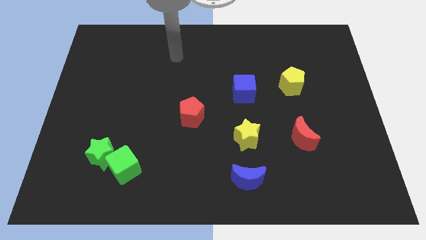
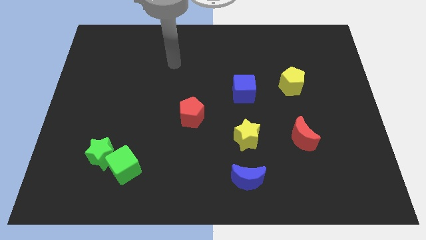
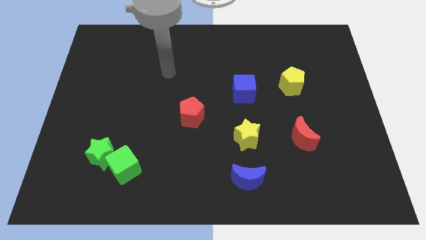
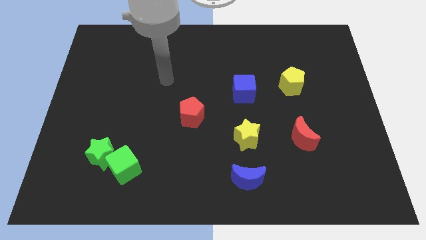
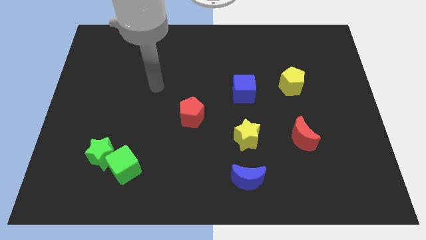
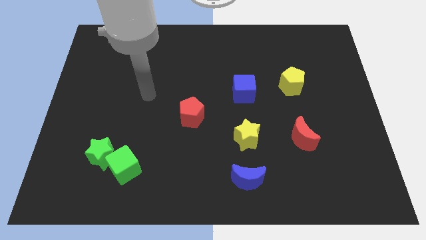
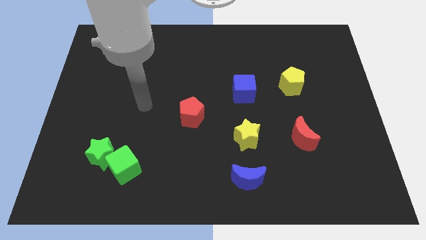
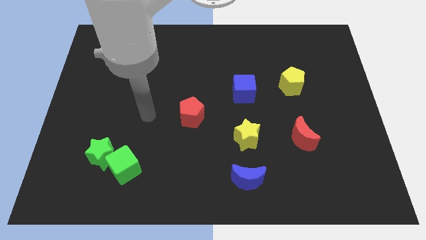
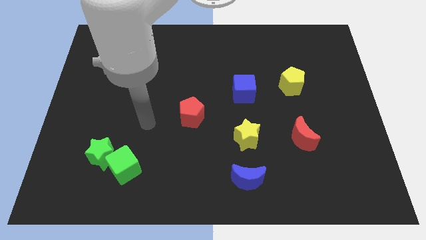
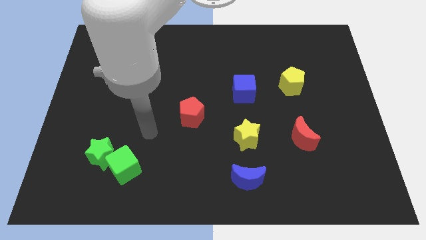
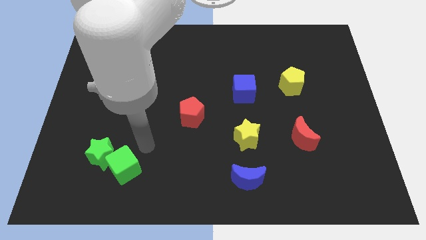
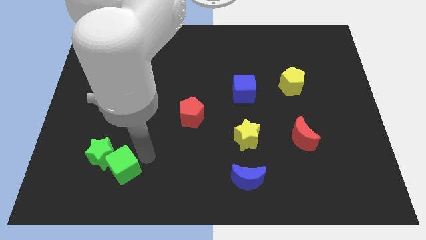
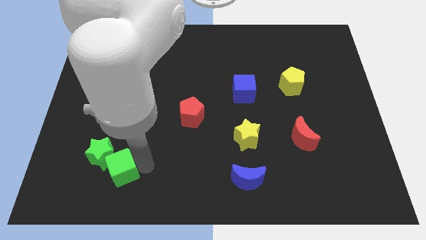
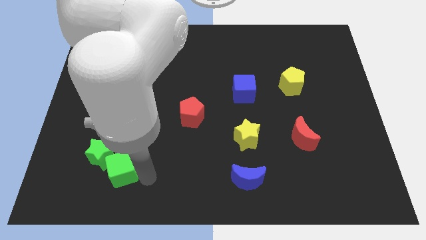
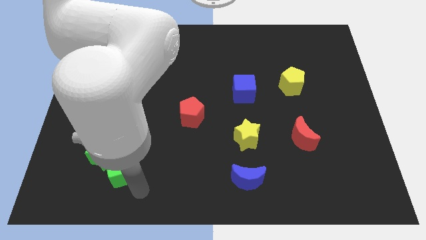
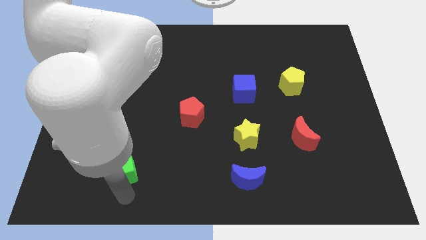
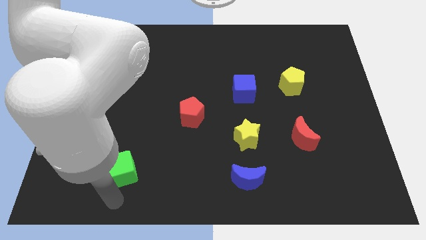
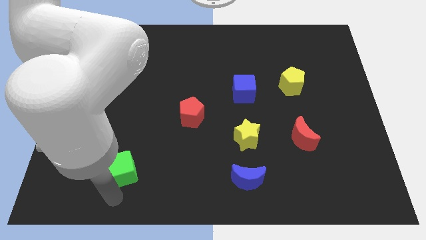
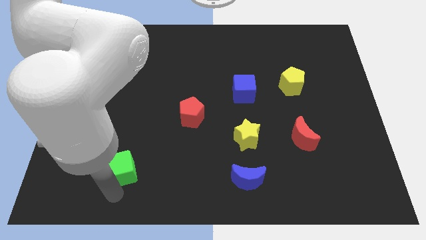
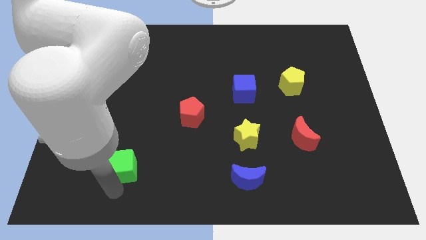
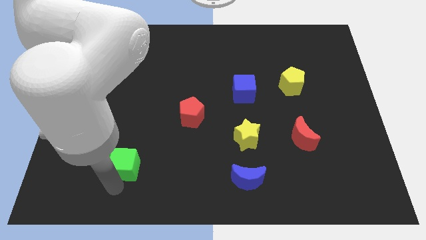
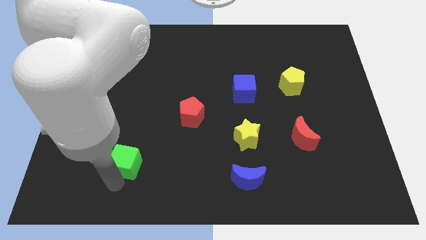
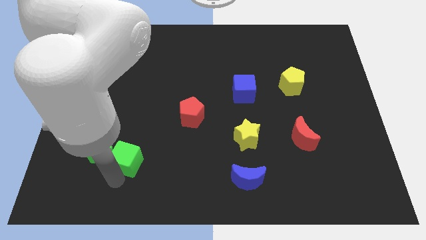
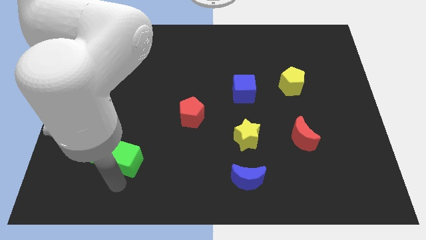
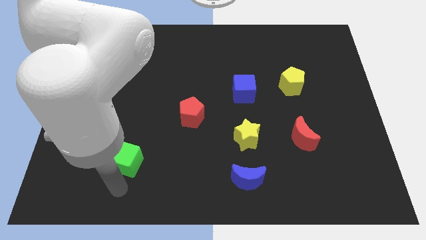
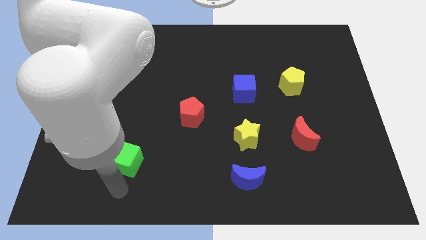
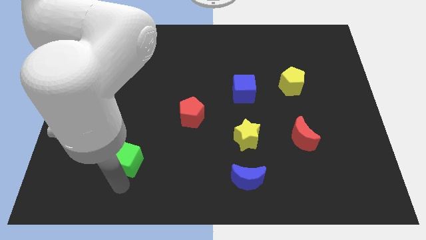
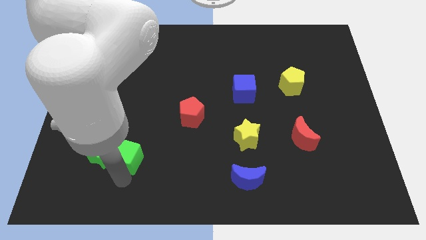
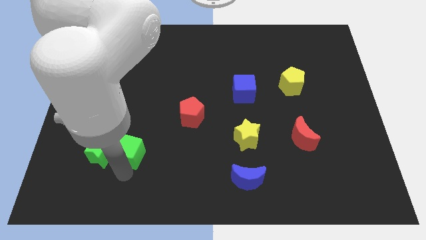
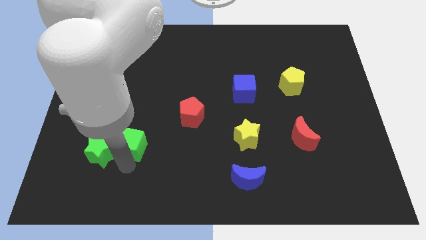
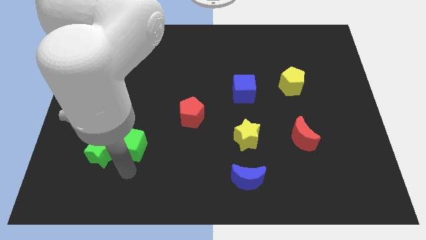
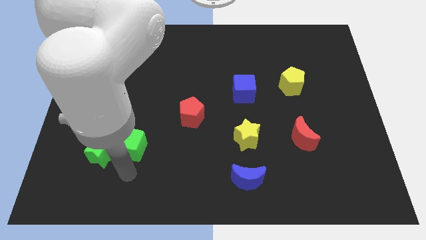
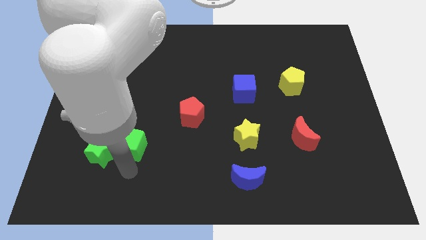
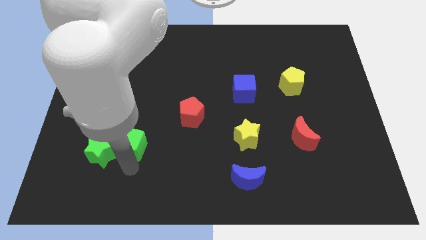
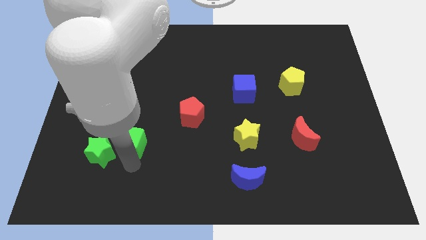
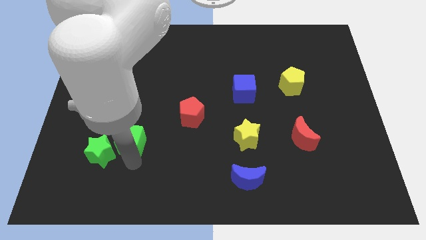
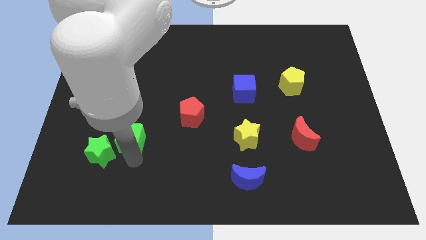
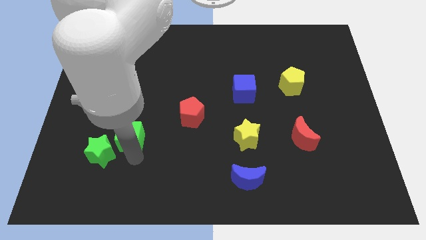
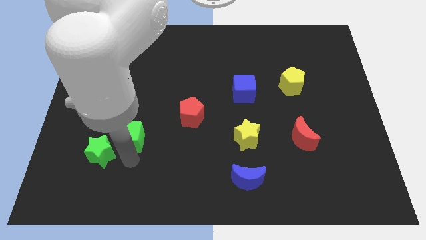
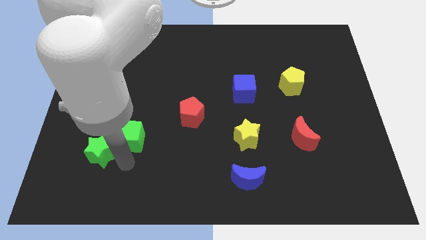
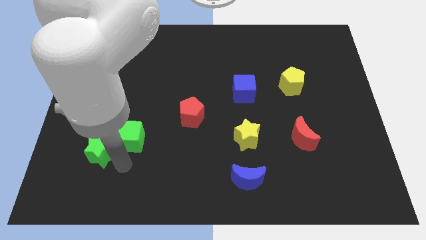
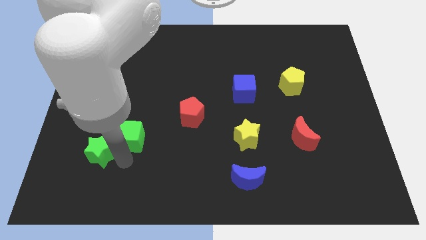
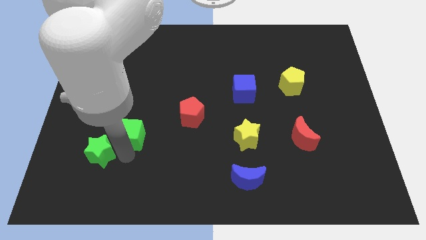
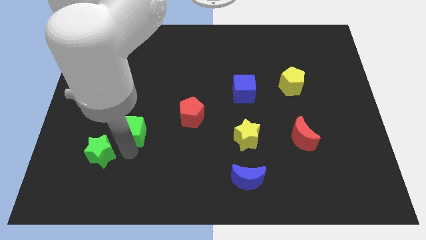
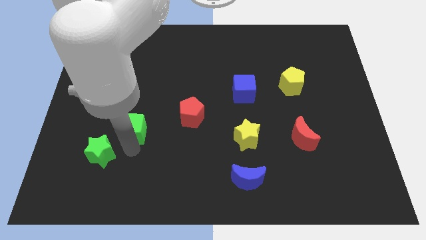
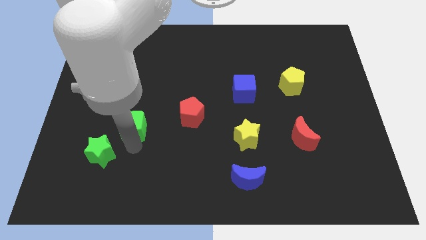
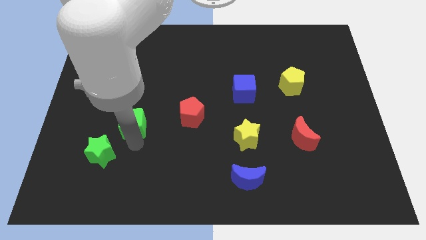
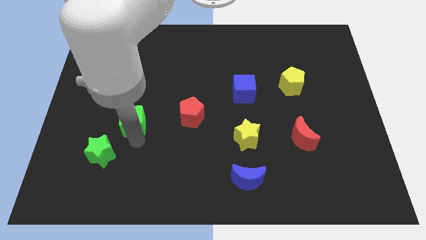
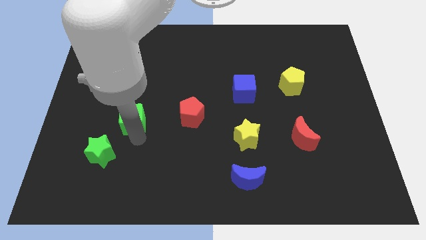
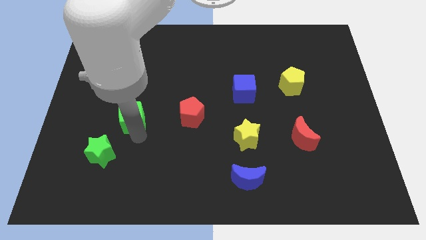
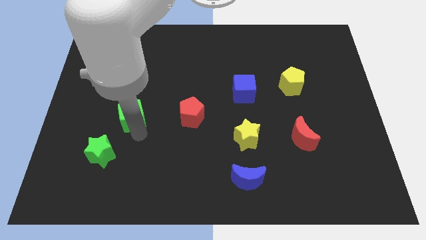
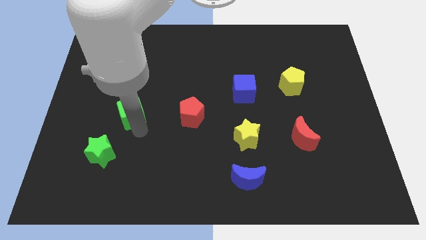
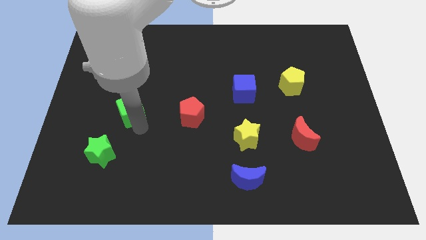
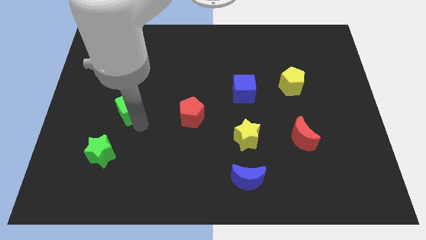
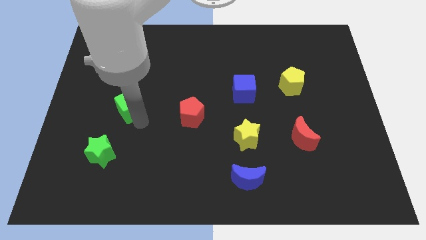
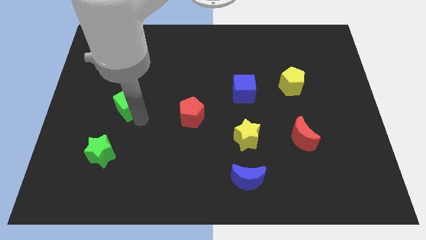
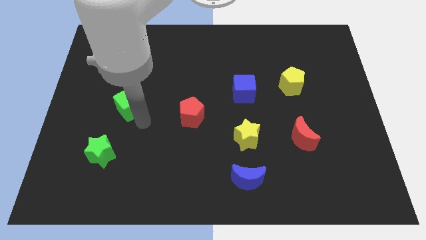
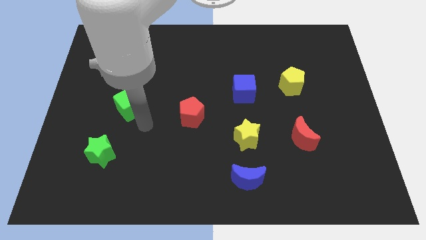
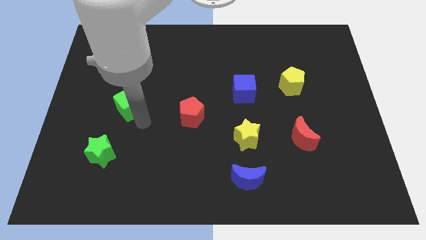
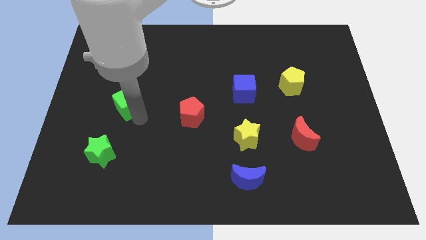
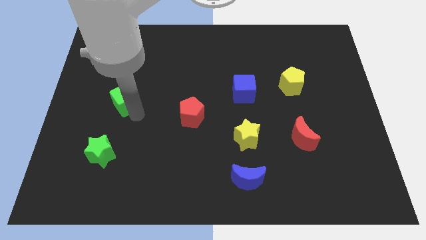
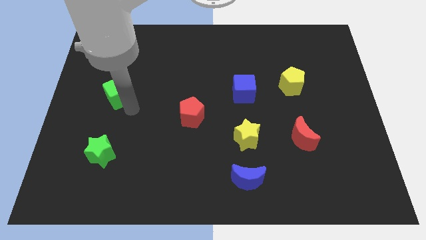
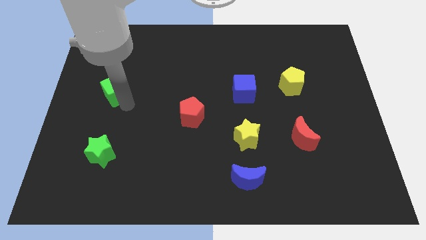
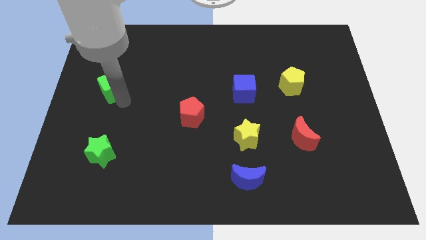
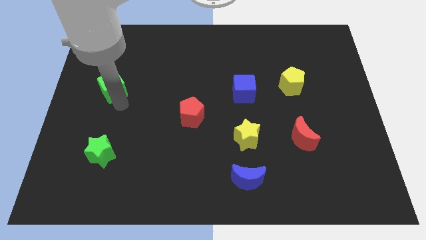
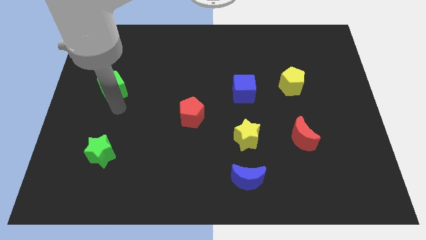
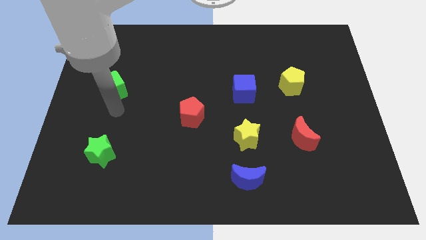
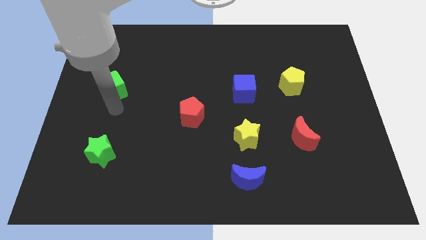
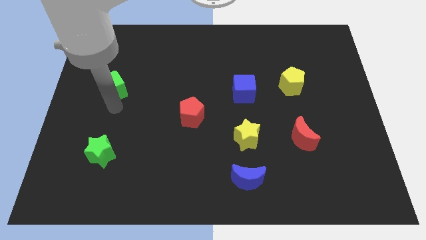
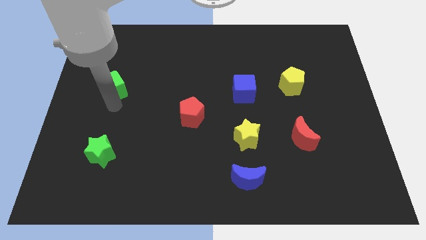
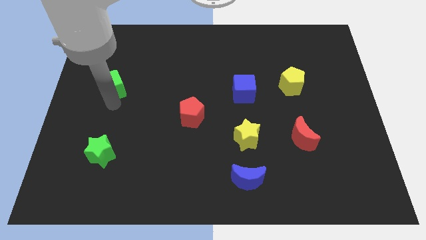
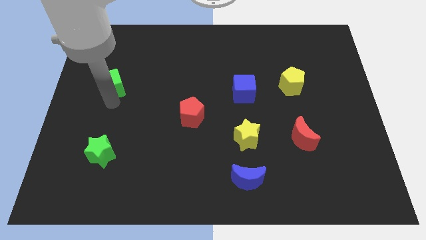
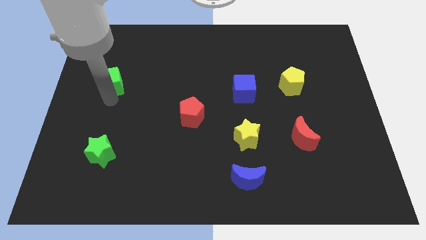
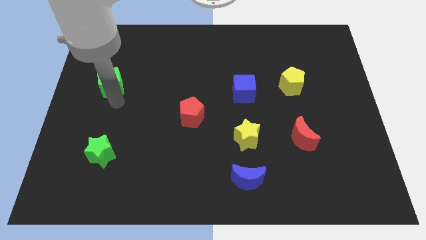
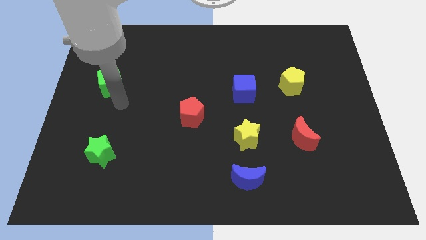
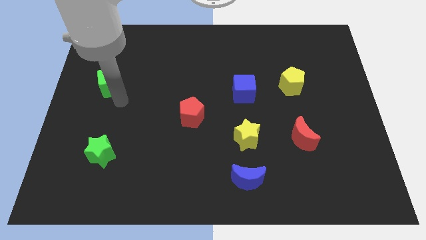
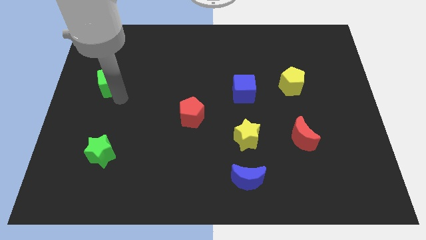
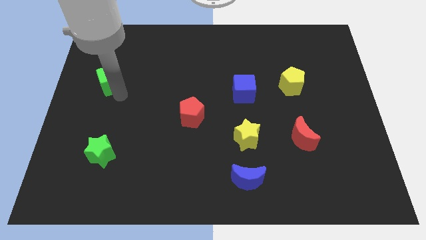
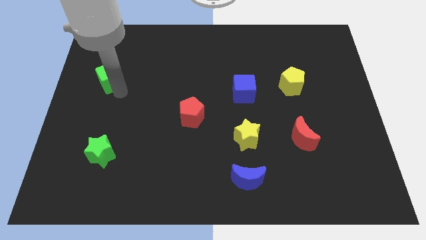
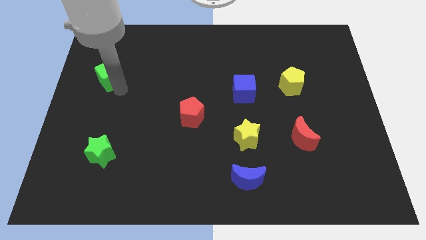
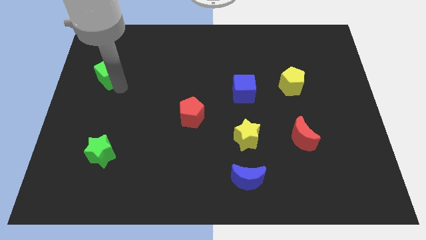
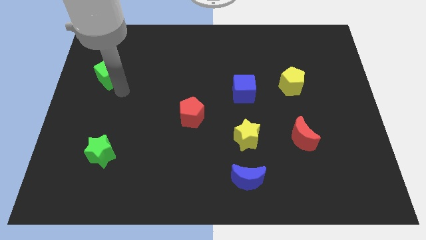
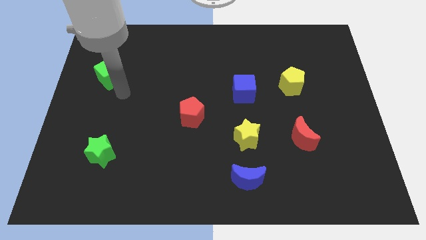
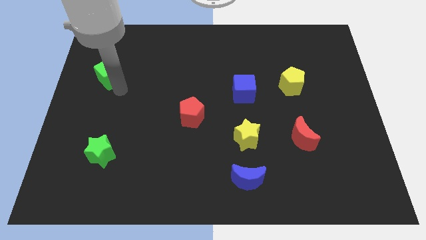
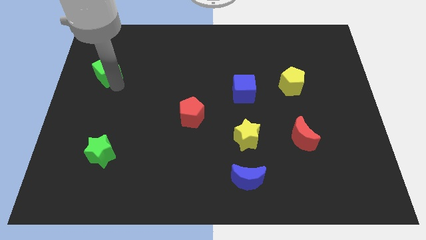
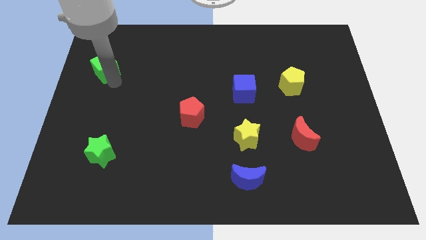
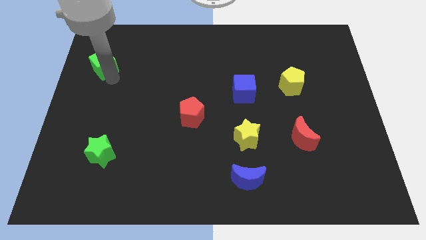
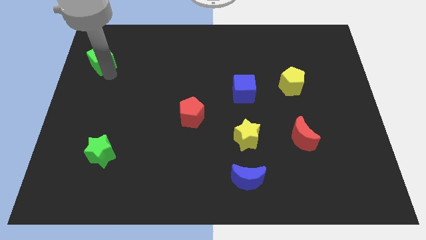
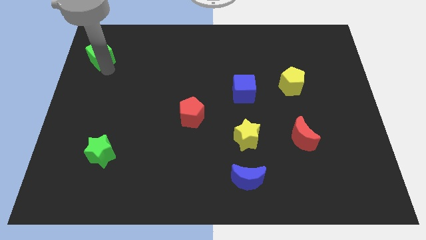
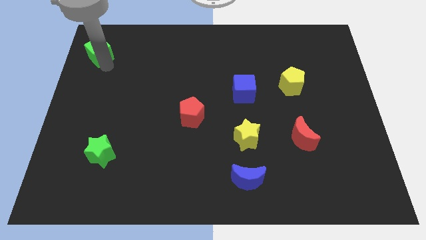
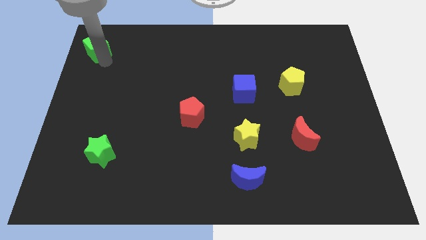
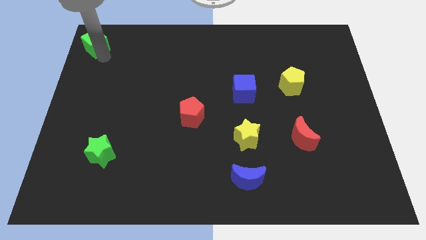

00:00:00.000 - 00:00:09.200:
put the green cube to the upper left corner
